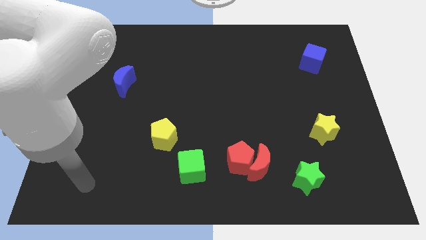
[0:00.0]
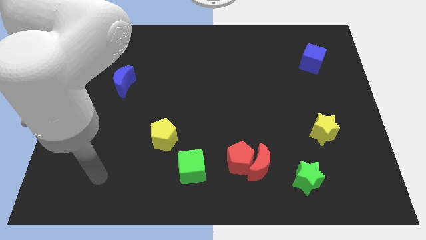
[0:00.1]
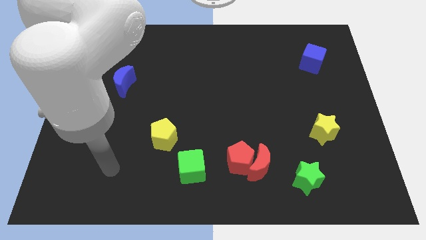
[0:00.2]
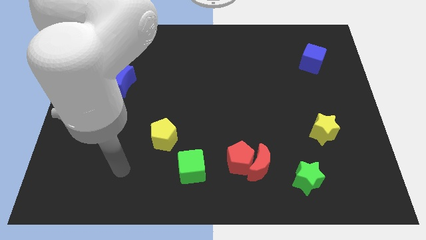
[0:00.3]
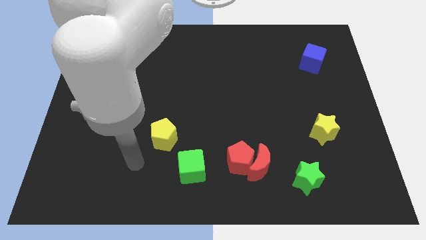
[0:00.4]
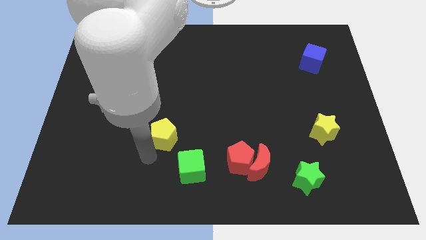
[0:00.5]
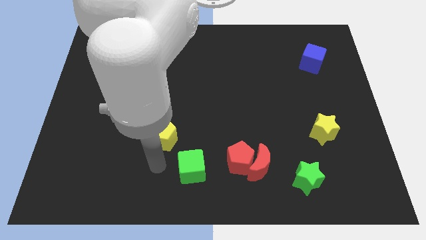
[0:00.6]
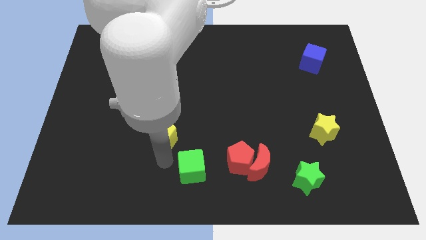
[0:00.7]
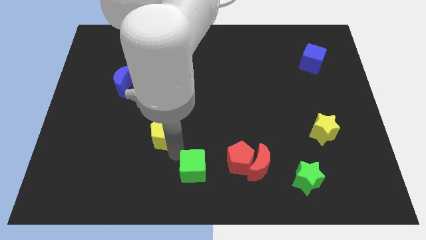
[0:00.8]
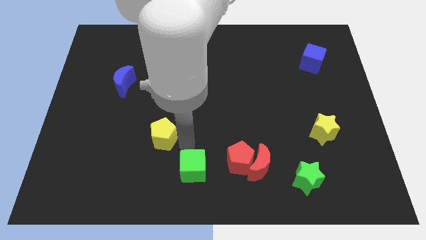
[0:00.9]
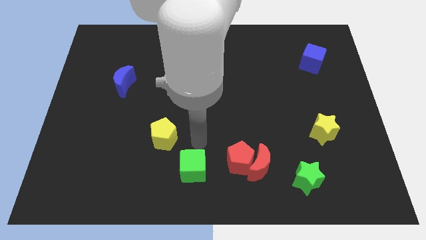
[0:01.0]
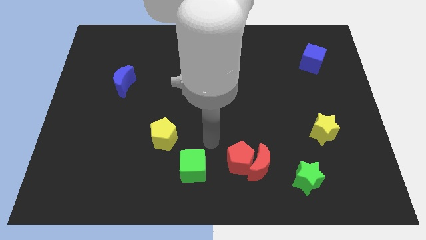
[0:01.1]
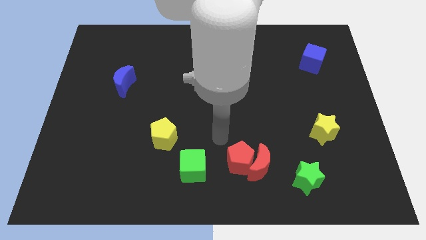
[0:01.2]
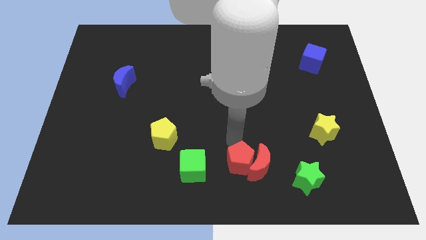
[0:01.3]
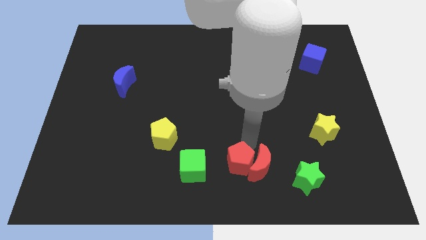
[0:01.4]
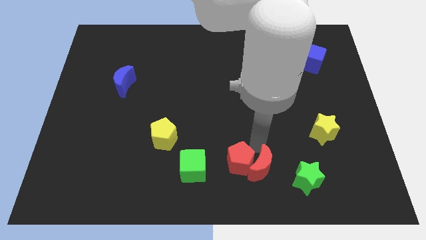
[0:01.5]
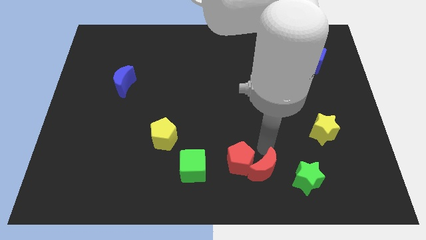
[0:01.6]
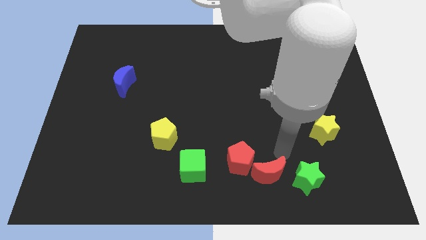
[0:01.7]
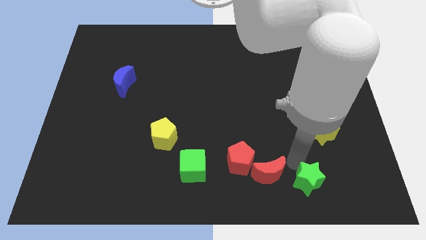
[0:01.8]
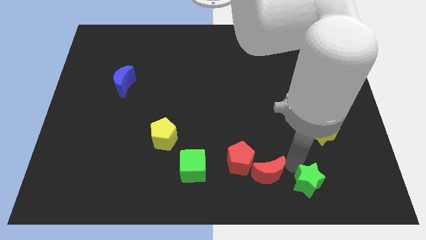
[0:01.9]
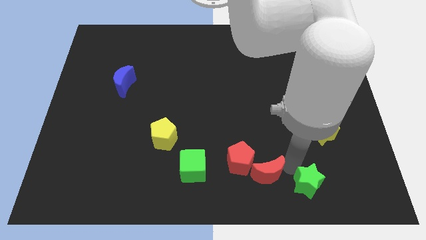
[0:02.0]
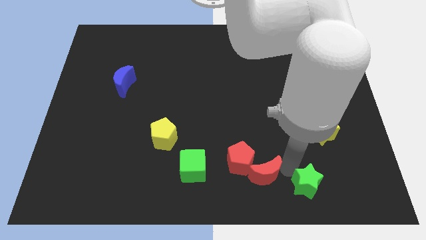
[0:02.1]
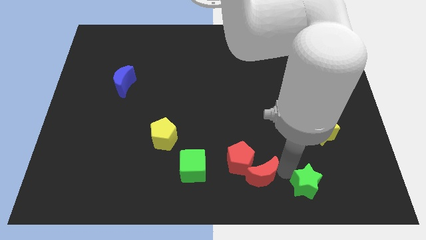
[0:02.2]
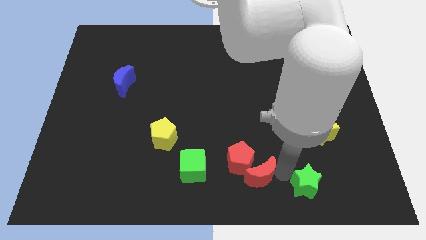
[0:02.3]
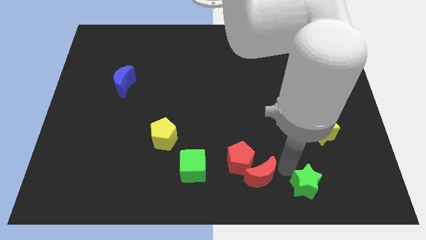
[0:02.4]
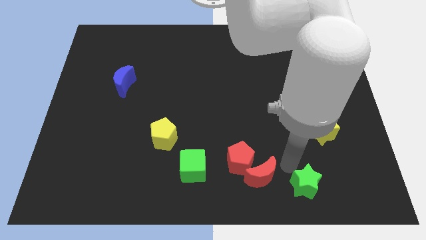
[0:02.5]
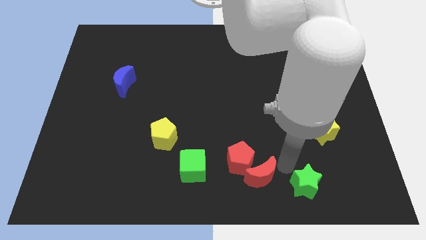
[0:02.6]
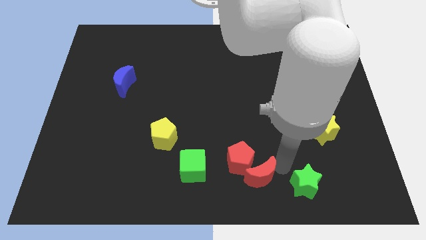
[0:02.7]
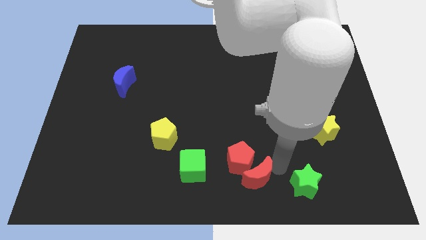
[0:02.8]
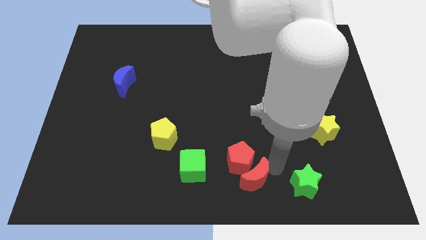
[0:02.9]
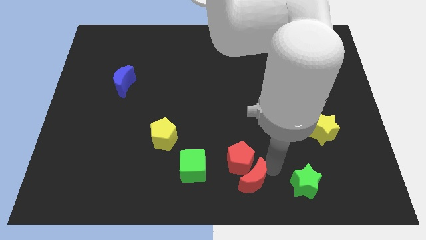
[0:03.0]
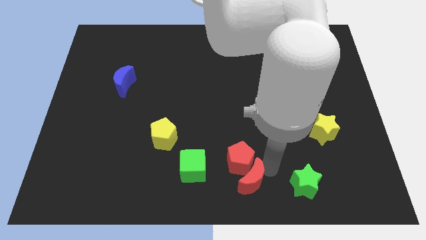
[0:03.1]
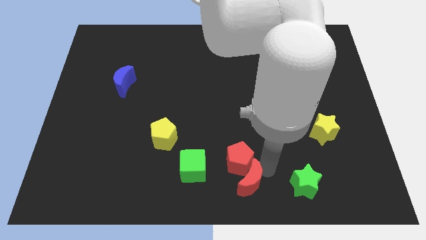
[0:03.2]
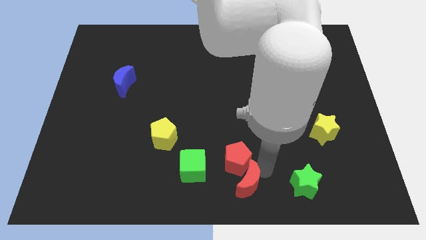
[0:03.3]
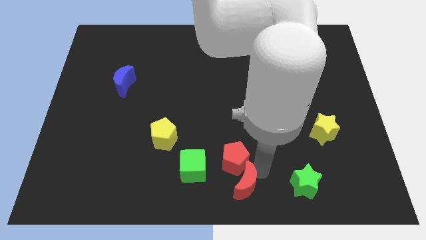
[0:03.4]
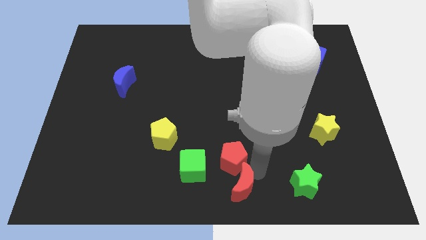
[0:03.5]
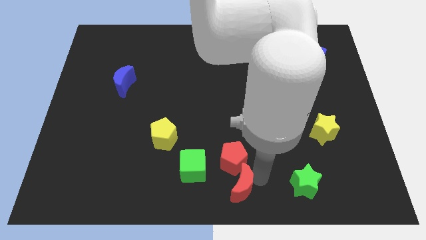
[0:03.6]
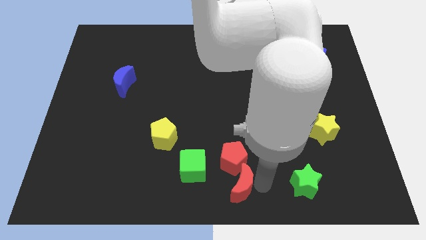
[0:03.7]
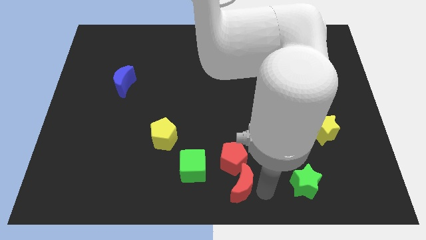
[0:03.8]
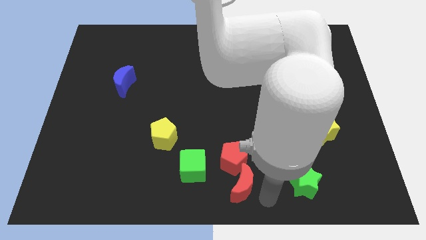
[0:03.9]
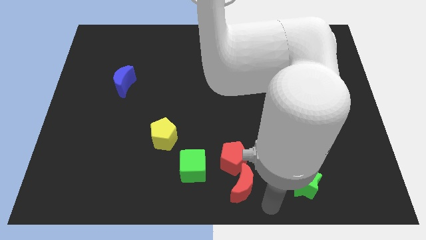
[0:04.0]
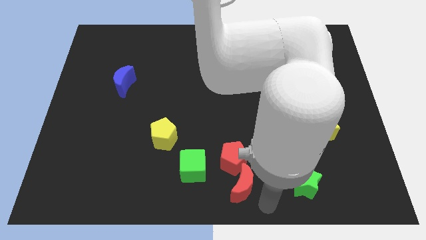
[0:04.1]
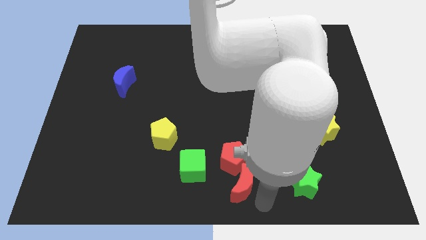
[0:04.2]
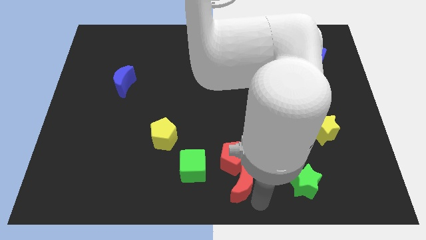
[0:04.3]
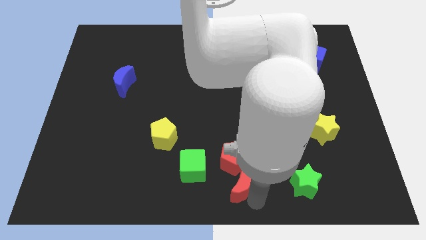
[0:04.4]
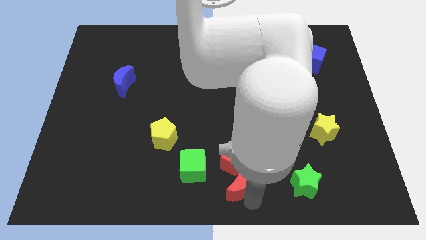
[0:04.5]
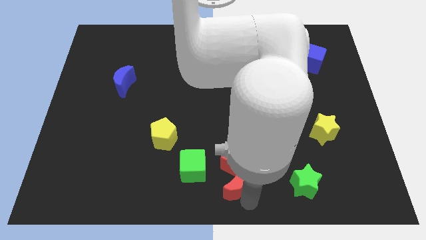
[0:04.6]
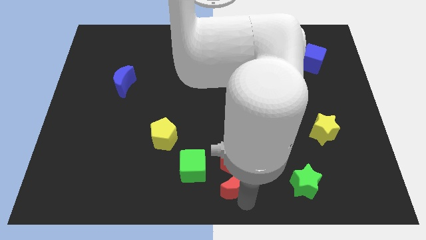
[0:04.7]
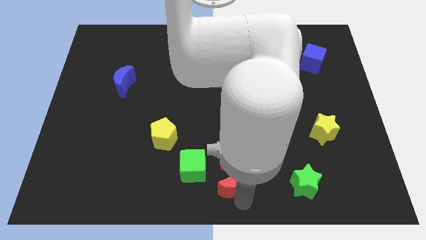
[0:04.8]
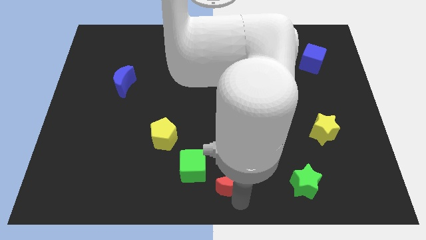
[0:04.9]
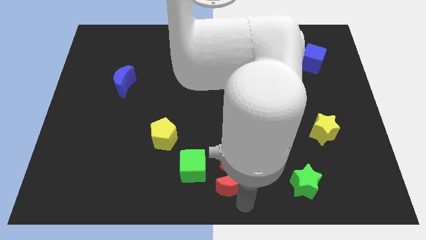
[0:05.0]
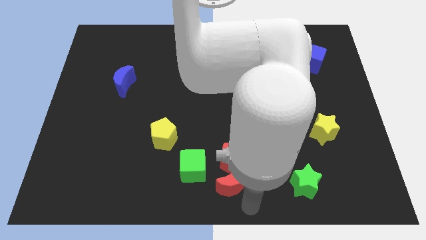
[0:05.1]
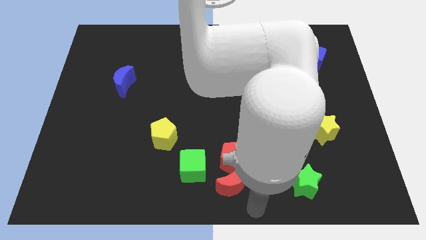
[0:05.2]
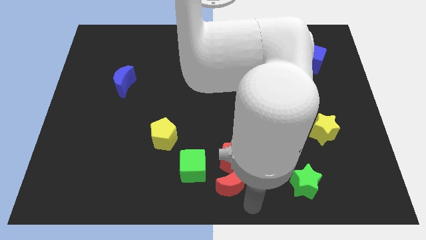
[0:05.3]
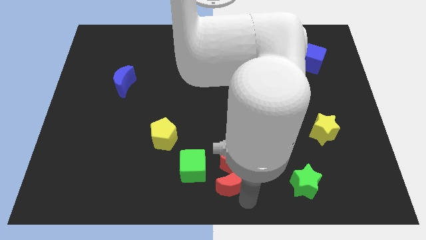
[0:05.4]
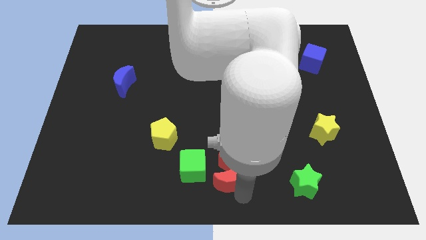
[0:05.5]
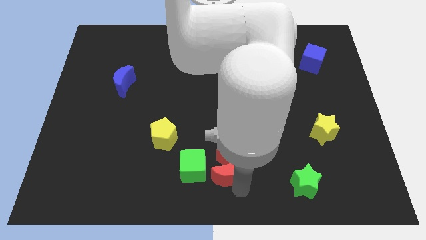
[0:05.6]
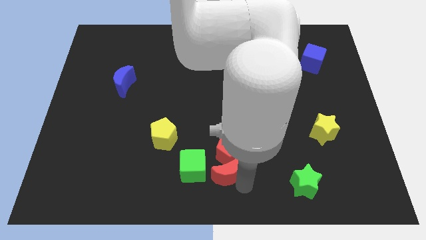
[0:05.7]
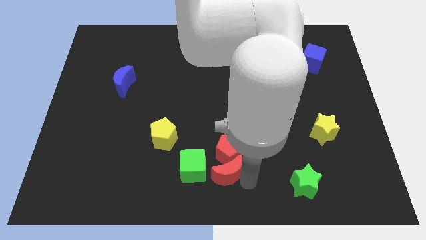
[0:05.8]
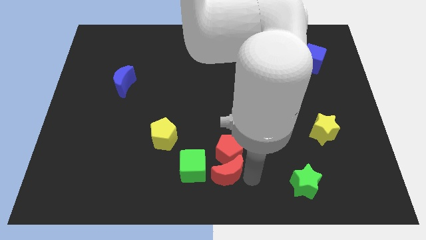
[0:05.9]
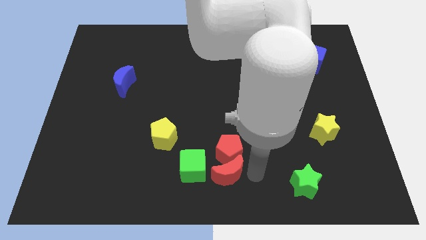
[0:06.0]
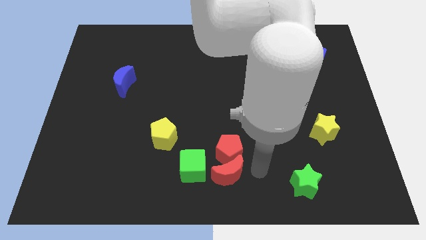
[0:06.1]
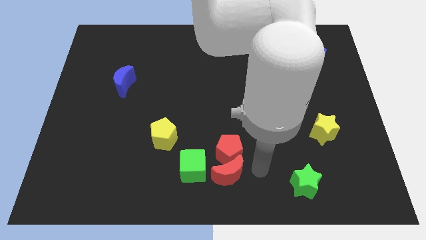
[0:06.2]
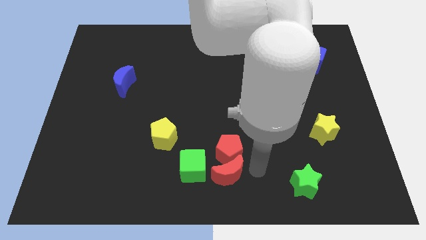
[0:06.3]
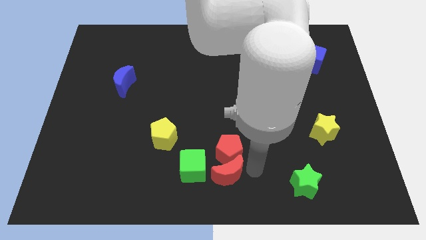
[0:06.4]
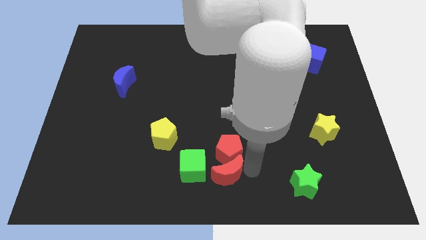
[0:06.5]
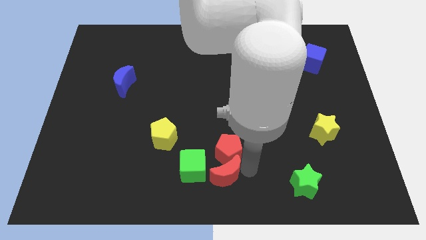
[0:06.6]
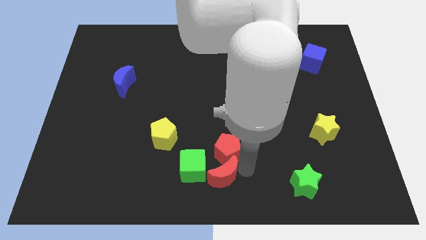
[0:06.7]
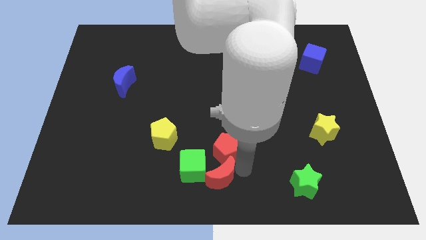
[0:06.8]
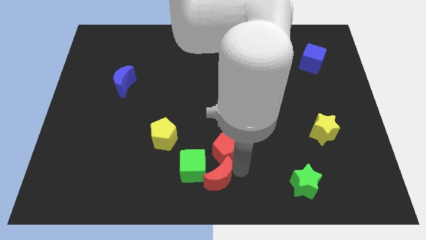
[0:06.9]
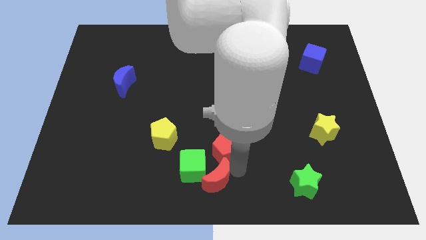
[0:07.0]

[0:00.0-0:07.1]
separate the red moon from the red pentagon and green star

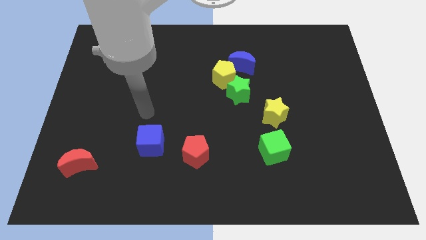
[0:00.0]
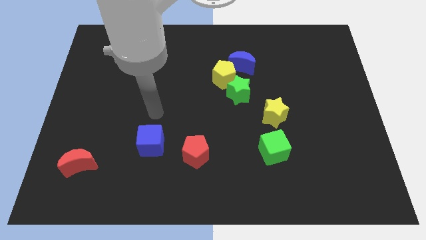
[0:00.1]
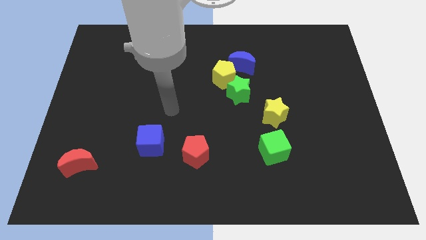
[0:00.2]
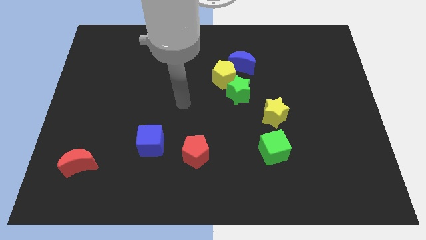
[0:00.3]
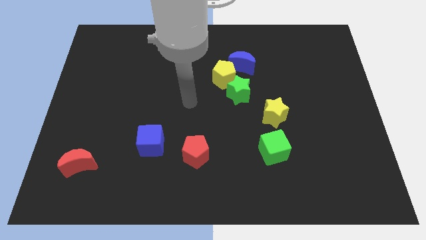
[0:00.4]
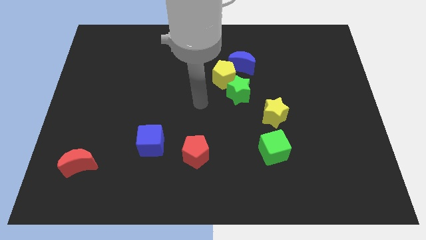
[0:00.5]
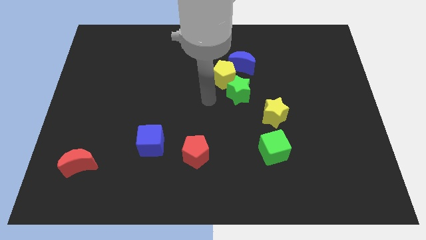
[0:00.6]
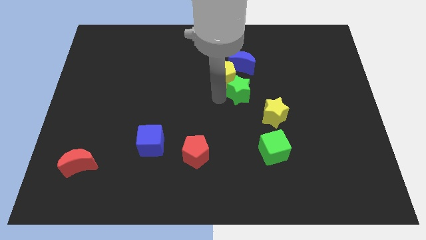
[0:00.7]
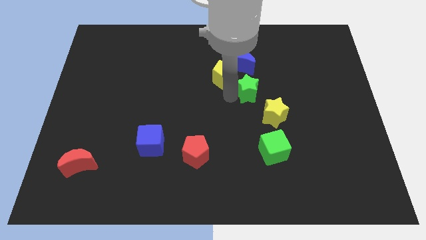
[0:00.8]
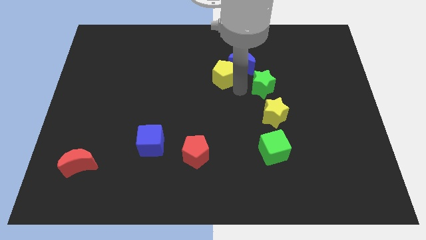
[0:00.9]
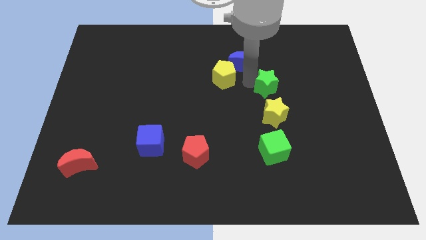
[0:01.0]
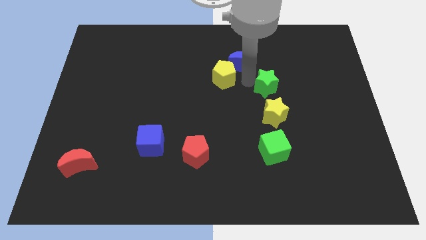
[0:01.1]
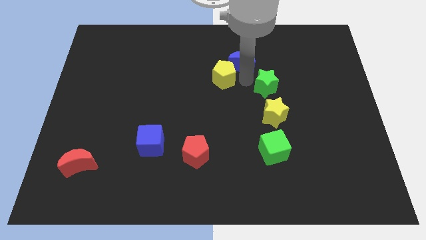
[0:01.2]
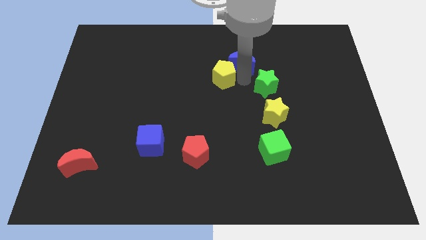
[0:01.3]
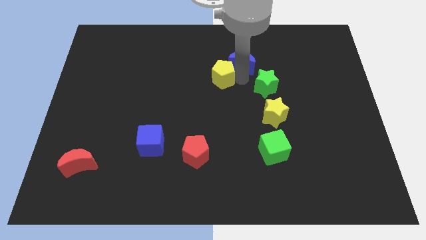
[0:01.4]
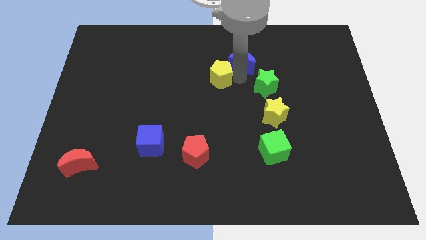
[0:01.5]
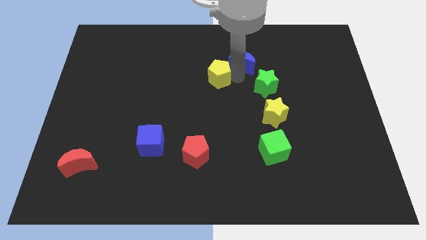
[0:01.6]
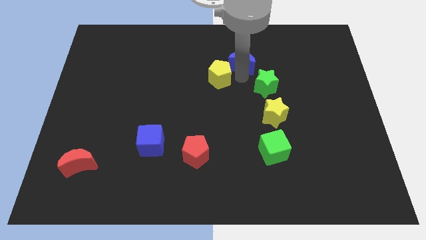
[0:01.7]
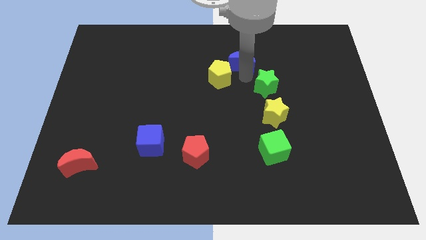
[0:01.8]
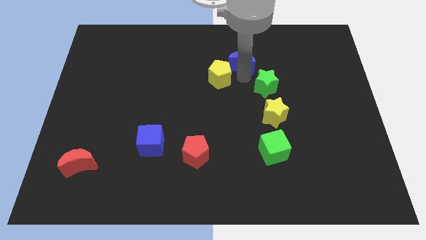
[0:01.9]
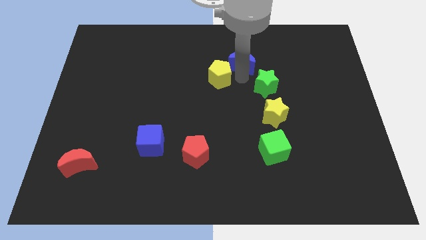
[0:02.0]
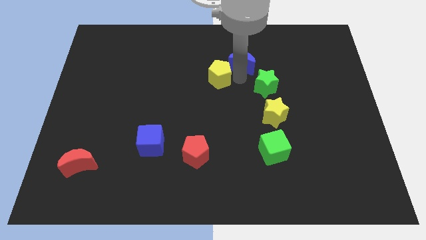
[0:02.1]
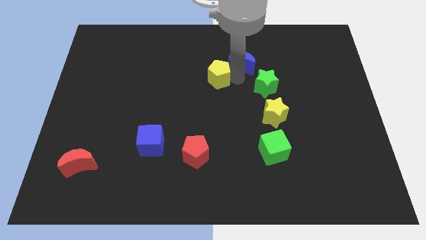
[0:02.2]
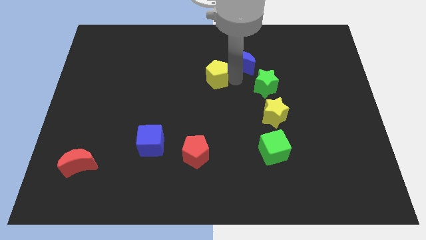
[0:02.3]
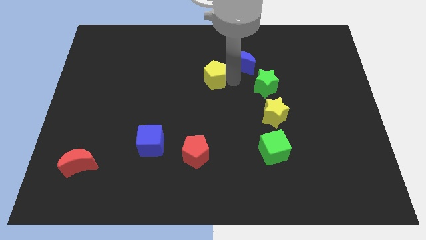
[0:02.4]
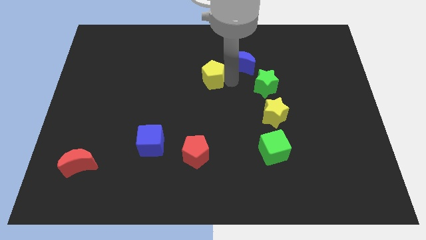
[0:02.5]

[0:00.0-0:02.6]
pull the yellow pentagon apart from the green star and blue moon
